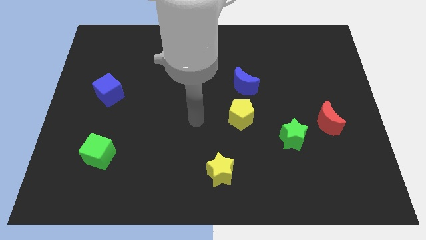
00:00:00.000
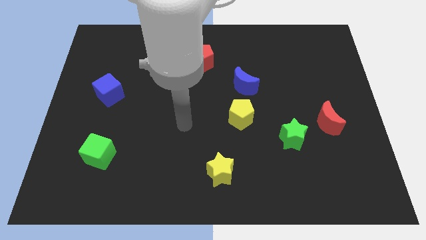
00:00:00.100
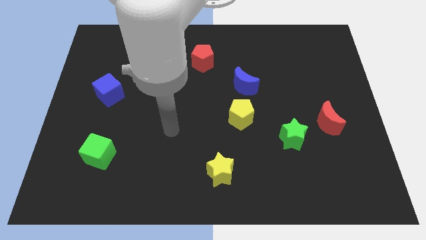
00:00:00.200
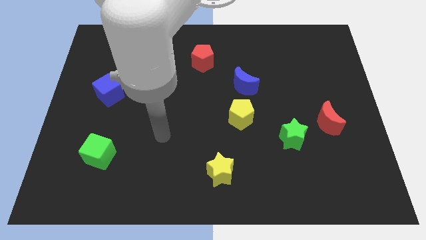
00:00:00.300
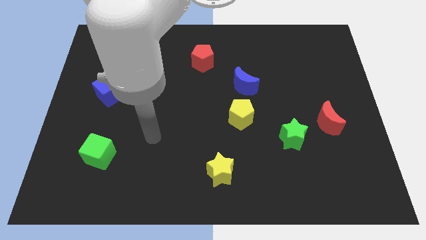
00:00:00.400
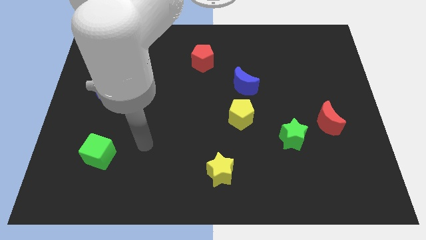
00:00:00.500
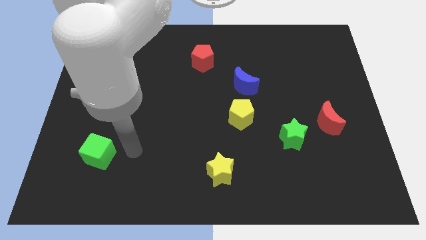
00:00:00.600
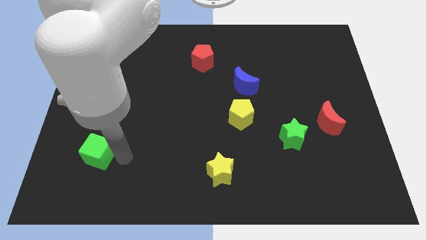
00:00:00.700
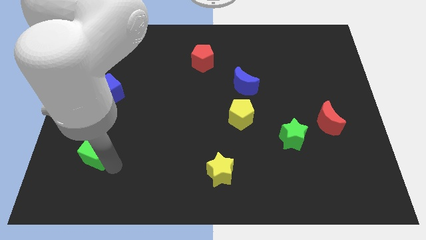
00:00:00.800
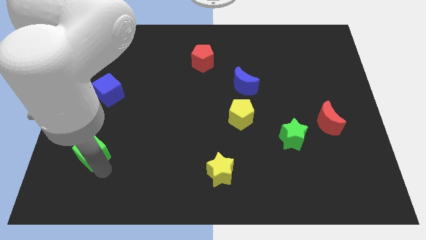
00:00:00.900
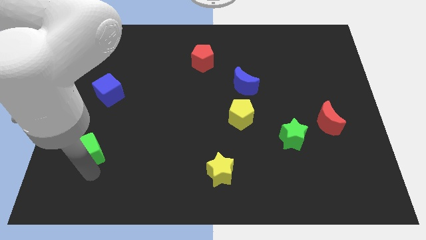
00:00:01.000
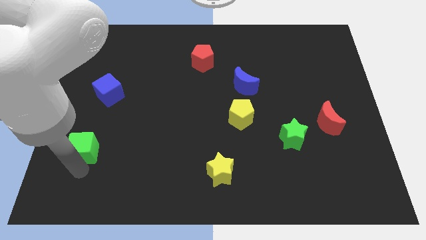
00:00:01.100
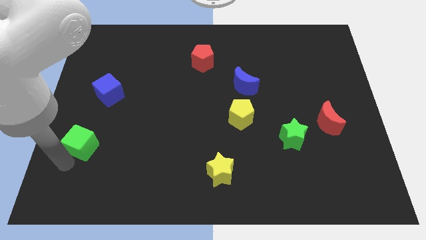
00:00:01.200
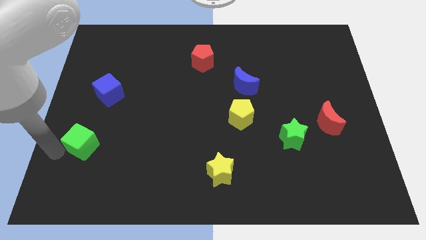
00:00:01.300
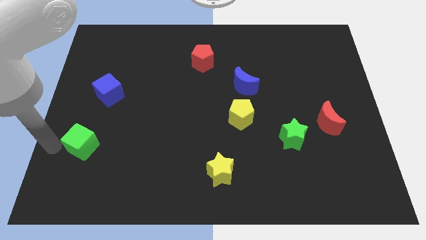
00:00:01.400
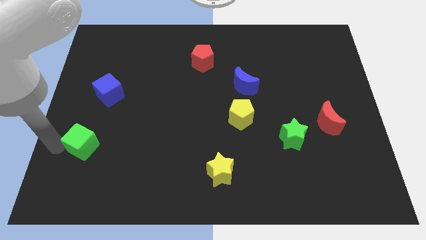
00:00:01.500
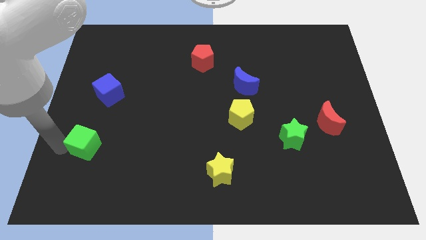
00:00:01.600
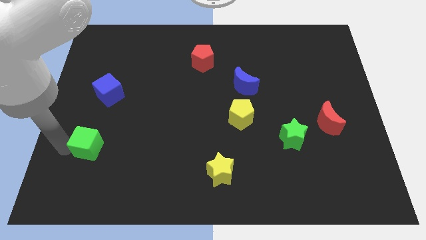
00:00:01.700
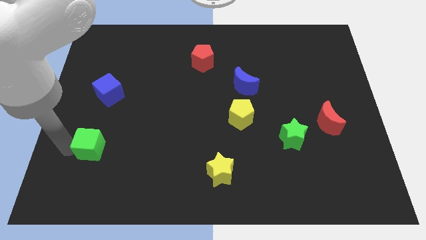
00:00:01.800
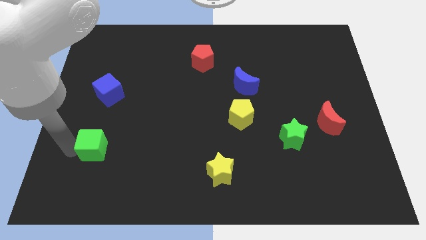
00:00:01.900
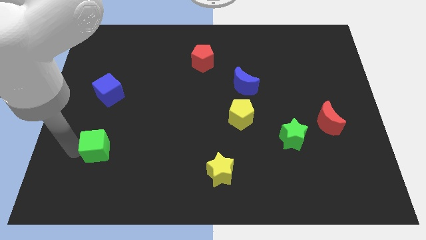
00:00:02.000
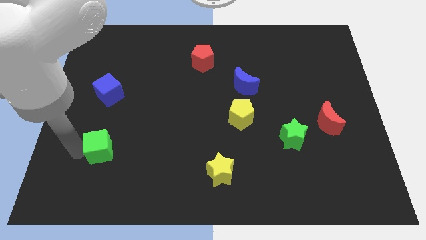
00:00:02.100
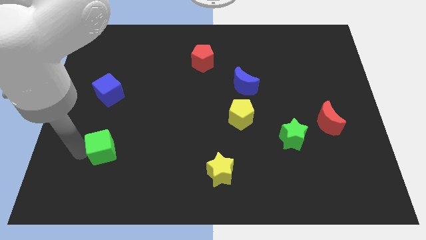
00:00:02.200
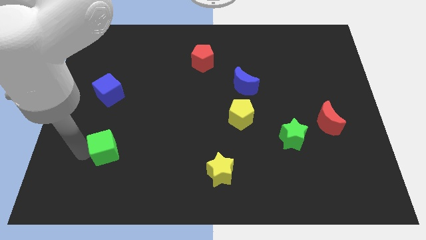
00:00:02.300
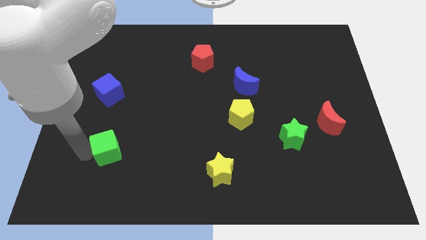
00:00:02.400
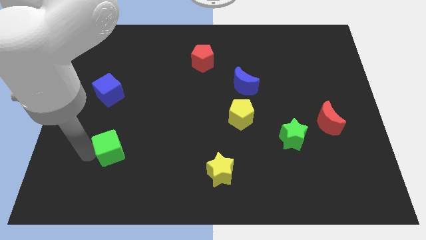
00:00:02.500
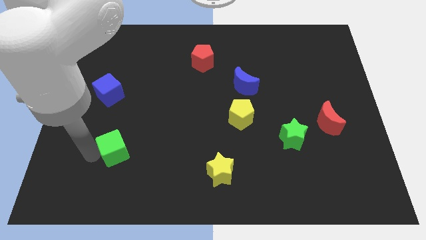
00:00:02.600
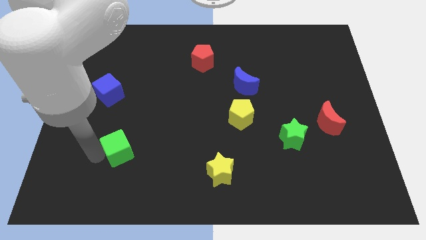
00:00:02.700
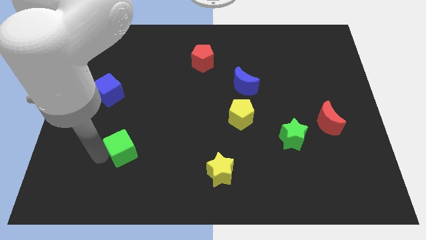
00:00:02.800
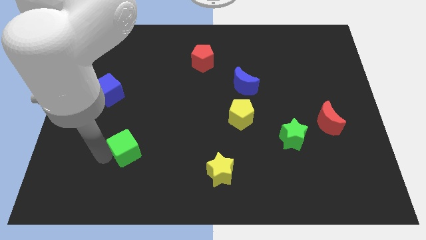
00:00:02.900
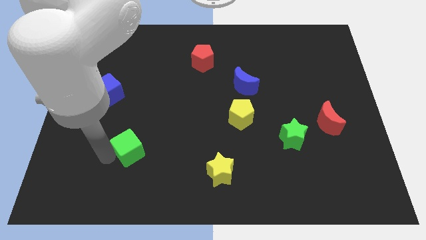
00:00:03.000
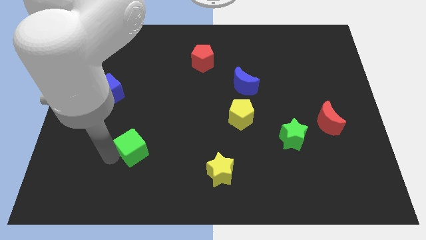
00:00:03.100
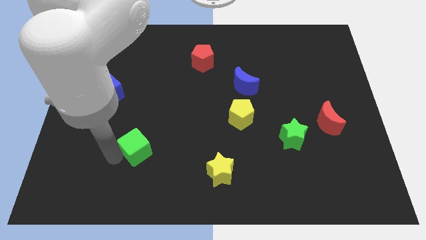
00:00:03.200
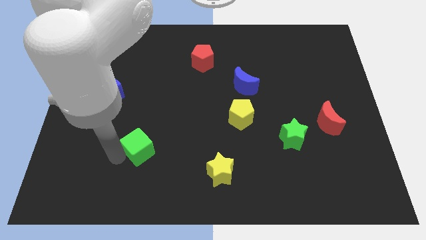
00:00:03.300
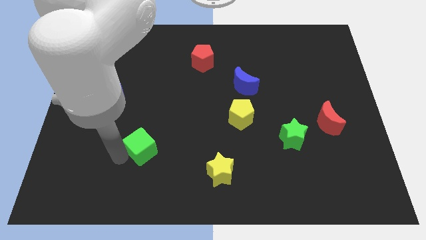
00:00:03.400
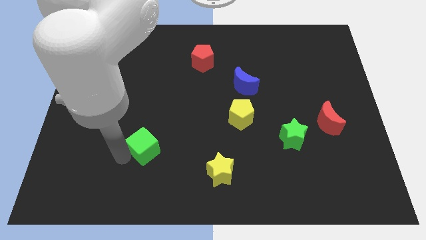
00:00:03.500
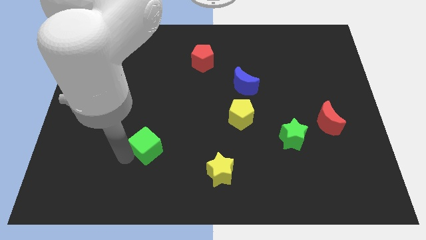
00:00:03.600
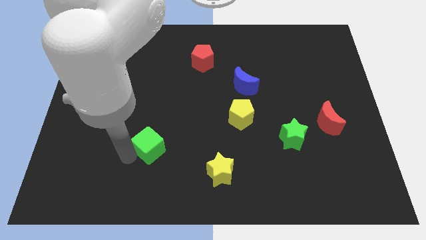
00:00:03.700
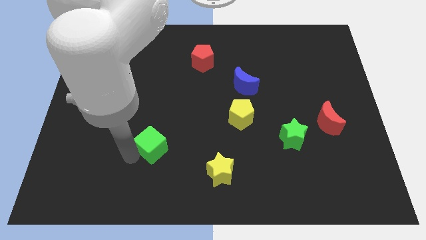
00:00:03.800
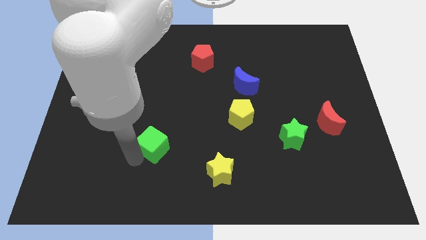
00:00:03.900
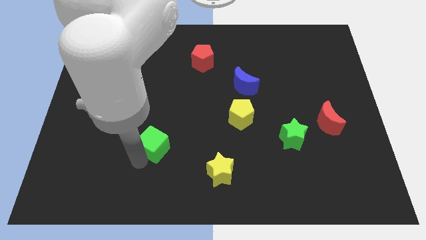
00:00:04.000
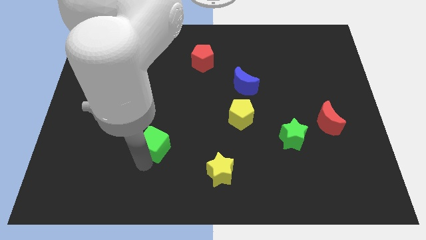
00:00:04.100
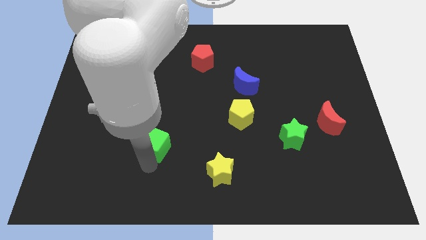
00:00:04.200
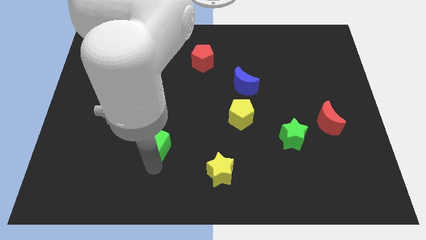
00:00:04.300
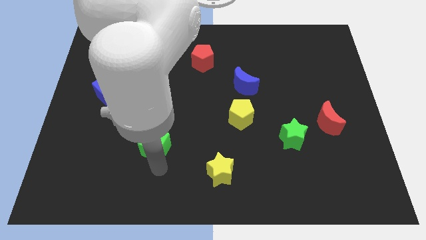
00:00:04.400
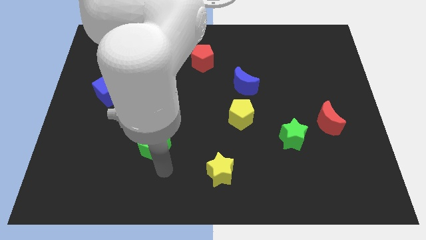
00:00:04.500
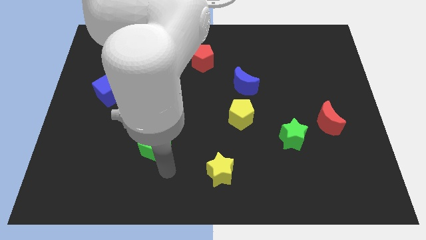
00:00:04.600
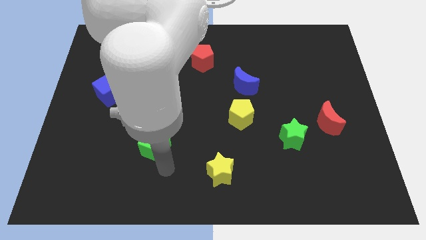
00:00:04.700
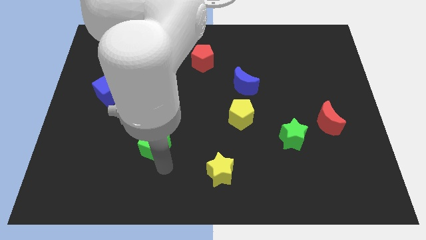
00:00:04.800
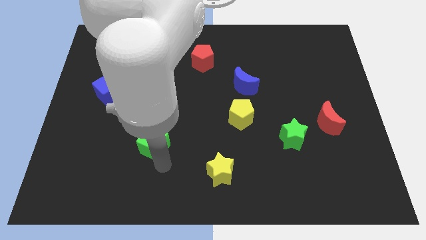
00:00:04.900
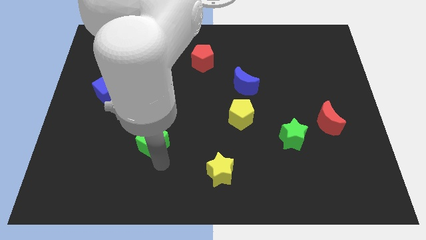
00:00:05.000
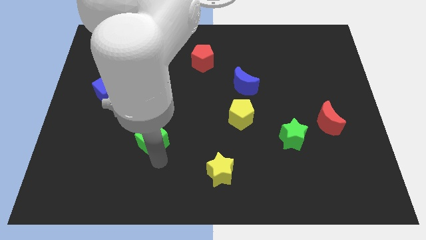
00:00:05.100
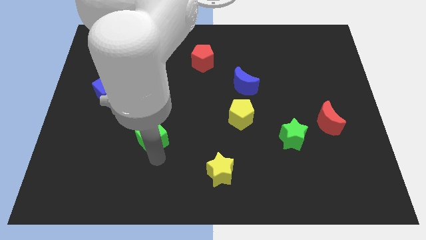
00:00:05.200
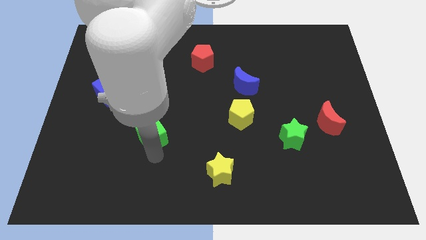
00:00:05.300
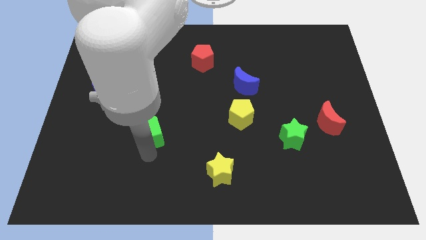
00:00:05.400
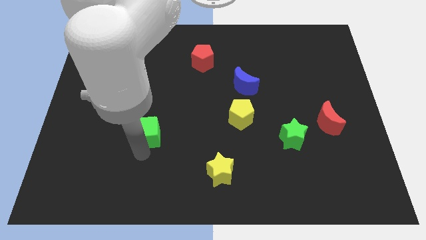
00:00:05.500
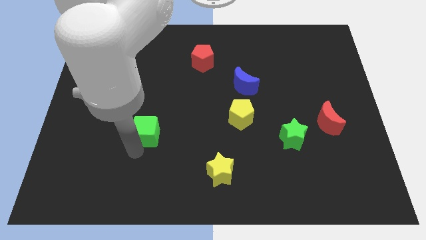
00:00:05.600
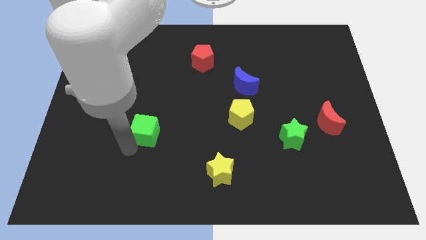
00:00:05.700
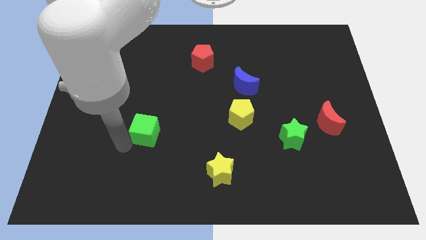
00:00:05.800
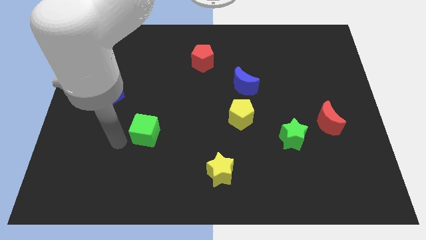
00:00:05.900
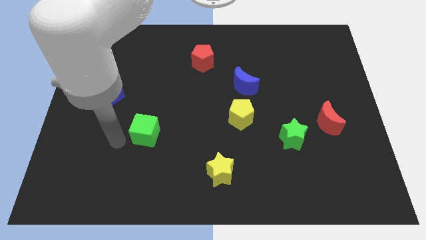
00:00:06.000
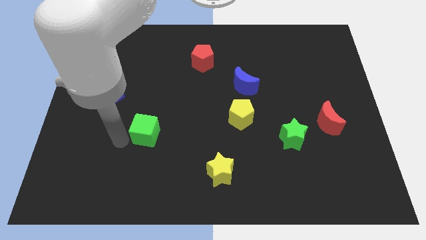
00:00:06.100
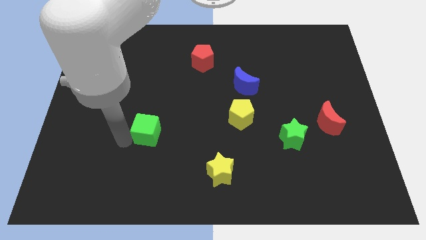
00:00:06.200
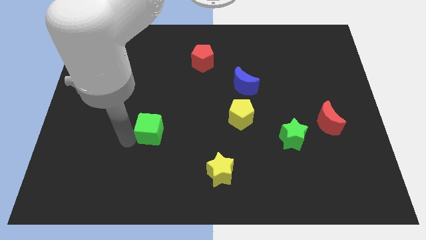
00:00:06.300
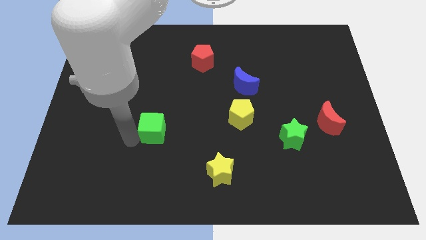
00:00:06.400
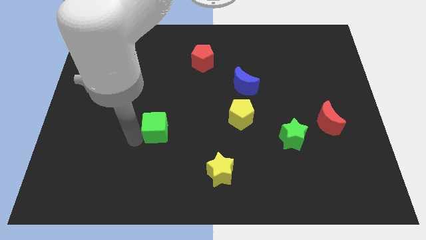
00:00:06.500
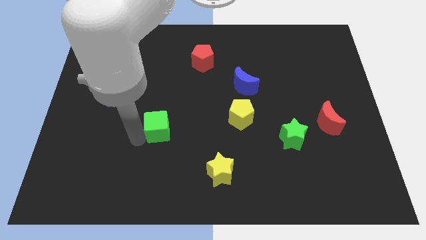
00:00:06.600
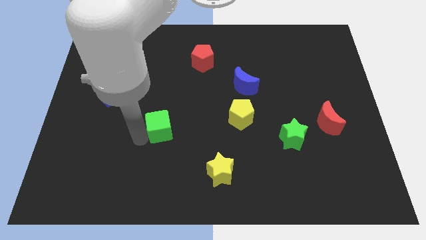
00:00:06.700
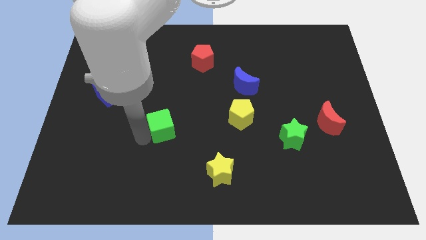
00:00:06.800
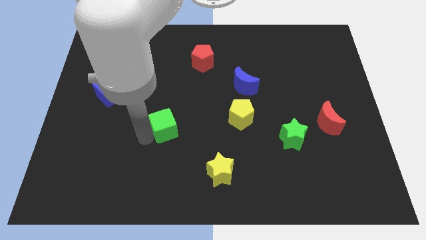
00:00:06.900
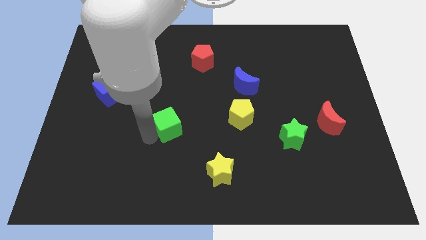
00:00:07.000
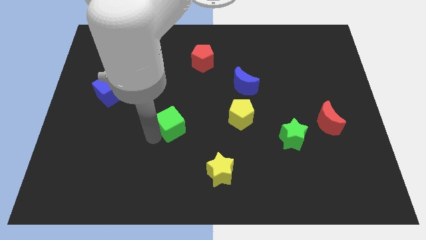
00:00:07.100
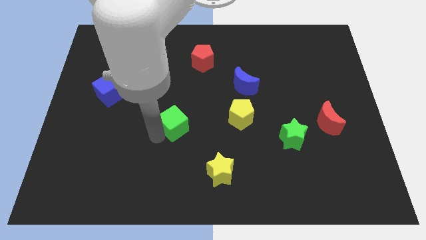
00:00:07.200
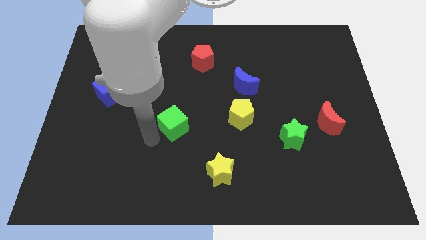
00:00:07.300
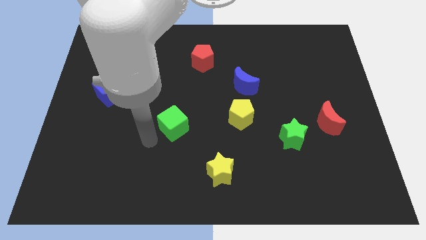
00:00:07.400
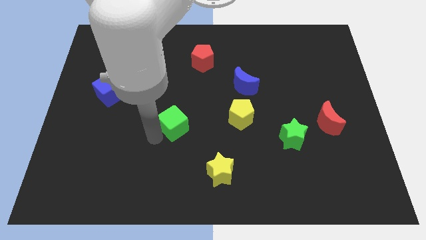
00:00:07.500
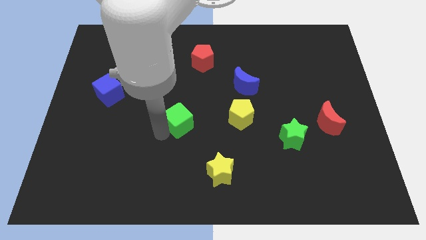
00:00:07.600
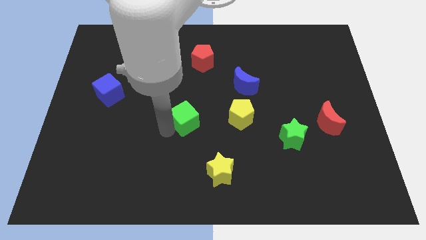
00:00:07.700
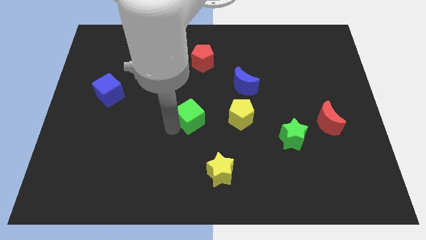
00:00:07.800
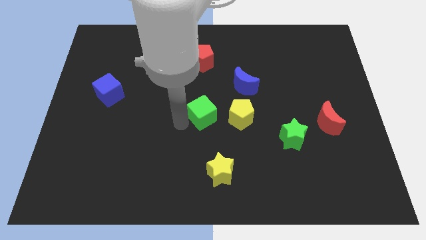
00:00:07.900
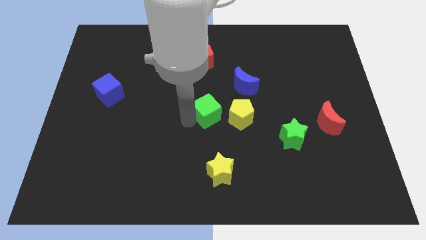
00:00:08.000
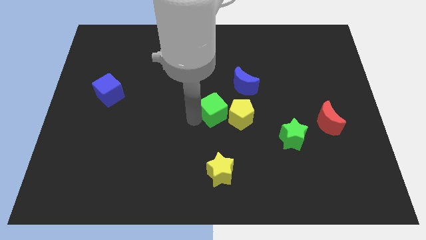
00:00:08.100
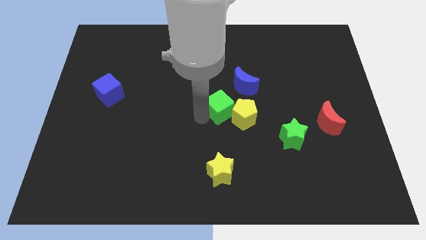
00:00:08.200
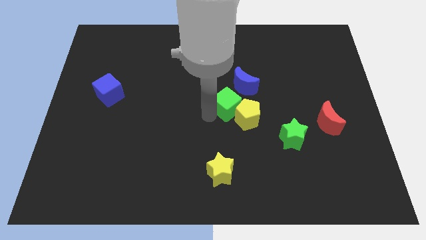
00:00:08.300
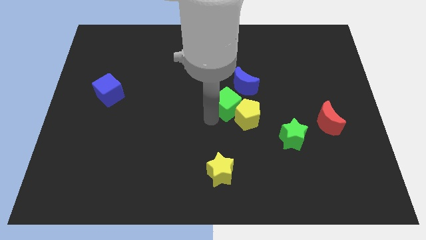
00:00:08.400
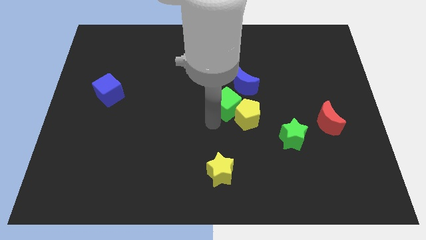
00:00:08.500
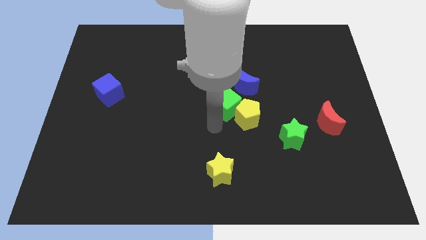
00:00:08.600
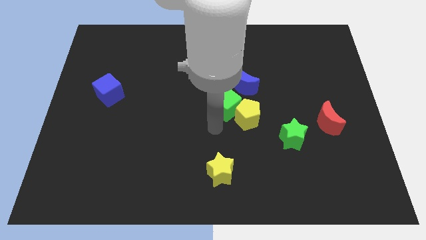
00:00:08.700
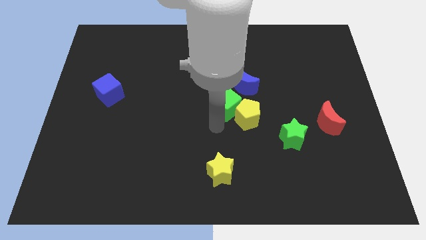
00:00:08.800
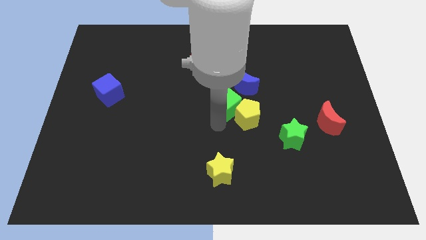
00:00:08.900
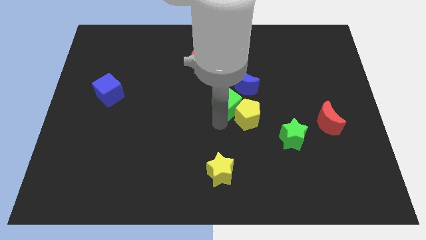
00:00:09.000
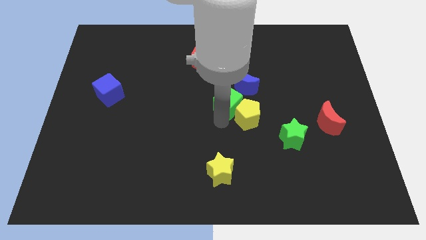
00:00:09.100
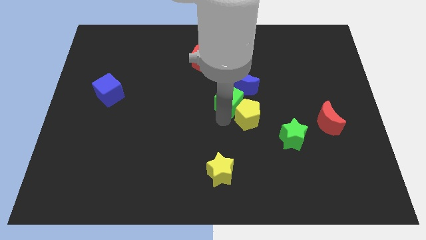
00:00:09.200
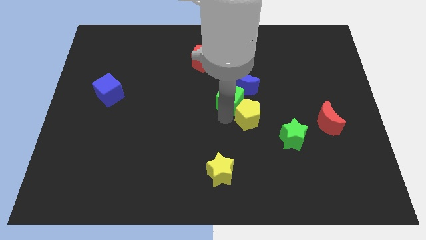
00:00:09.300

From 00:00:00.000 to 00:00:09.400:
put the green cube close to the blue moon
